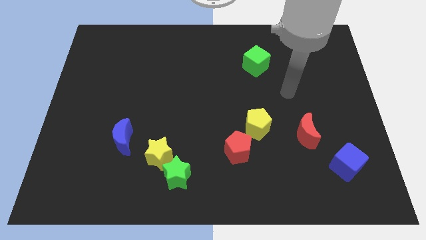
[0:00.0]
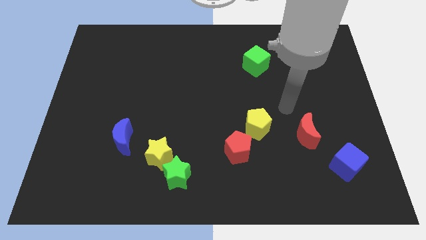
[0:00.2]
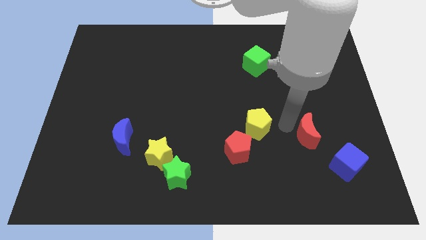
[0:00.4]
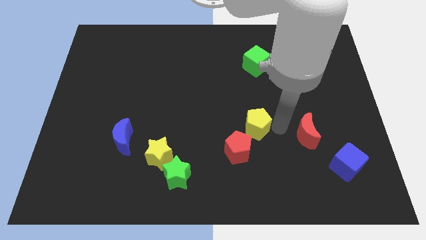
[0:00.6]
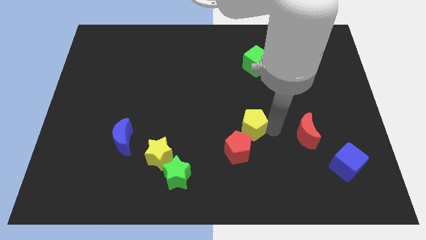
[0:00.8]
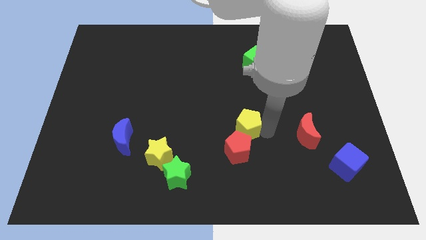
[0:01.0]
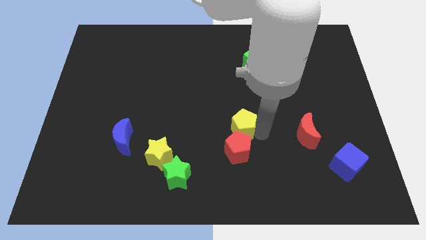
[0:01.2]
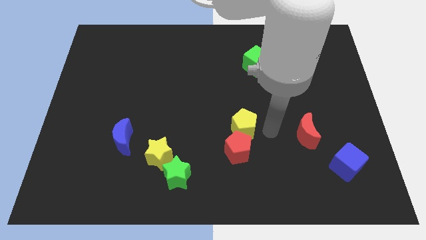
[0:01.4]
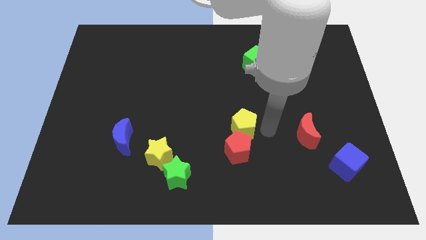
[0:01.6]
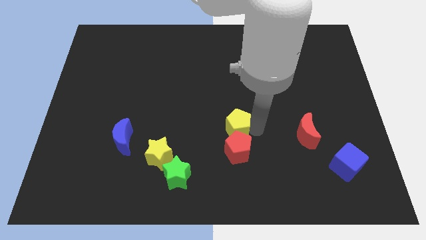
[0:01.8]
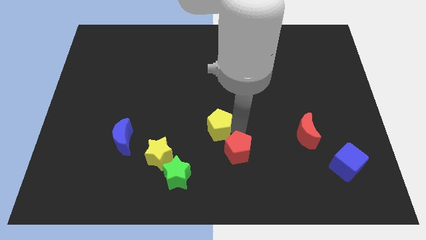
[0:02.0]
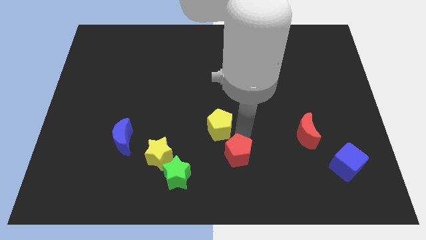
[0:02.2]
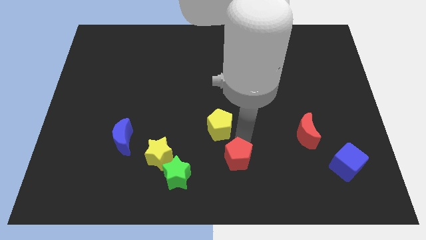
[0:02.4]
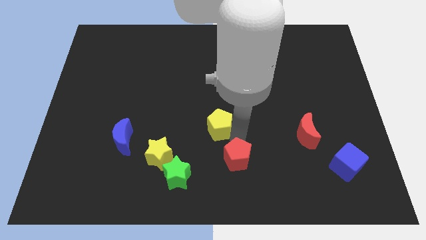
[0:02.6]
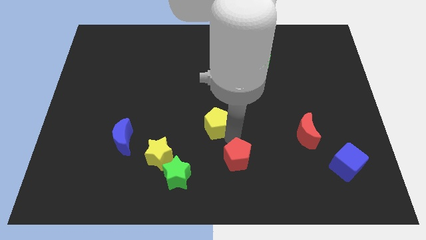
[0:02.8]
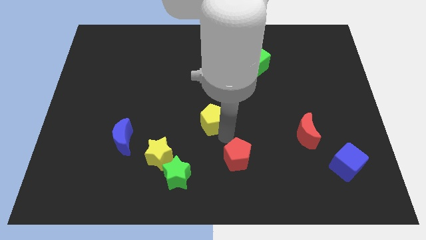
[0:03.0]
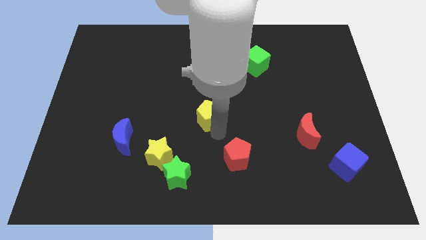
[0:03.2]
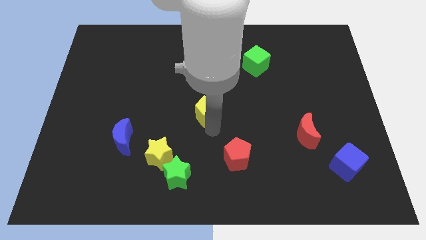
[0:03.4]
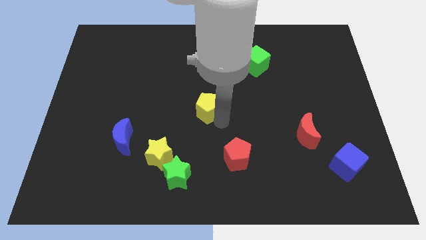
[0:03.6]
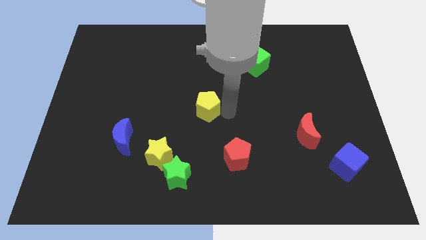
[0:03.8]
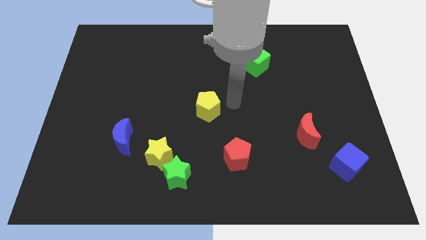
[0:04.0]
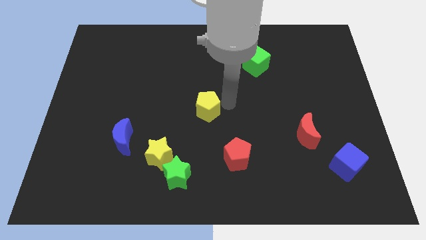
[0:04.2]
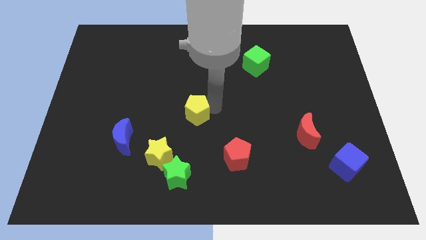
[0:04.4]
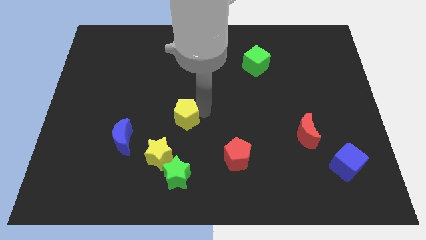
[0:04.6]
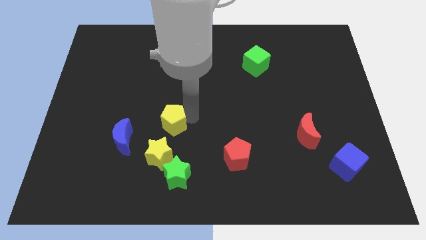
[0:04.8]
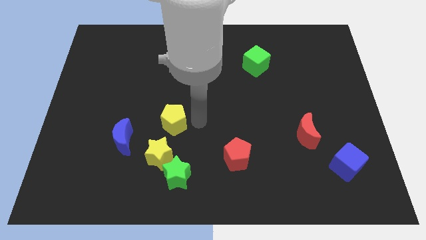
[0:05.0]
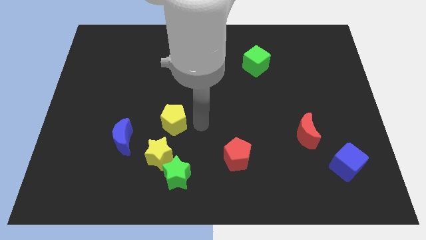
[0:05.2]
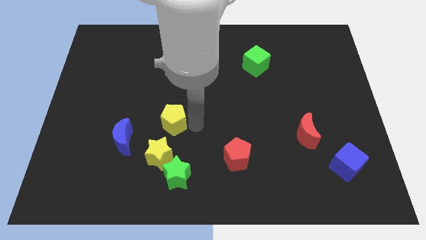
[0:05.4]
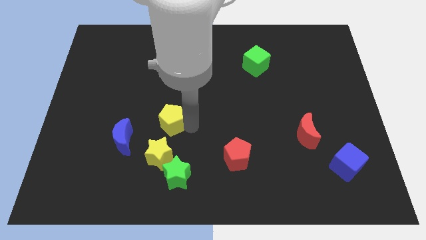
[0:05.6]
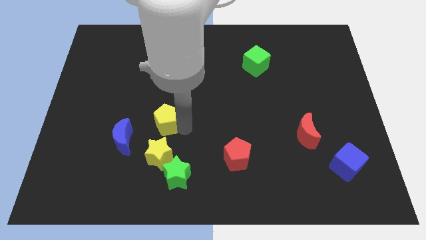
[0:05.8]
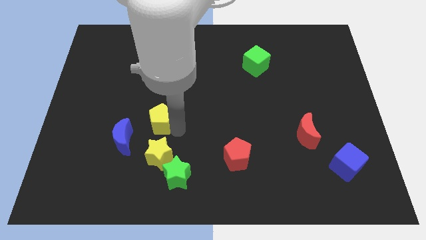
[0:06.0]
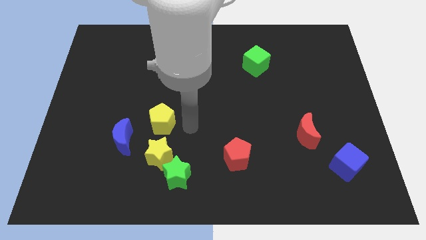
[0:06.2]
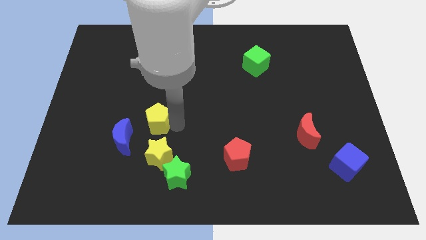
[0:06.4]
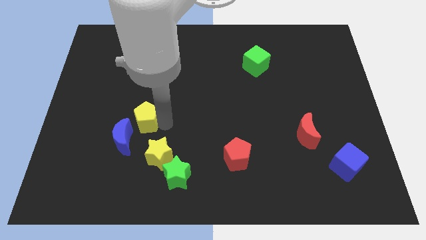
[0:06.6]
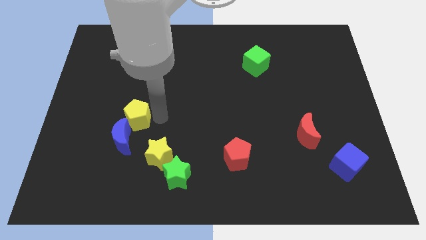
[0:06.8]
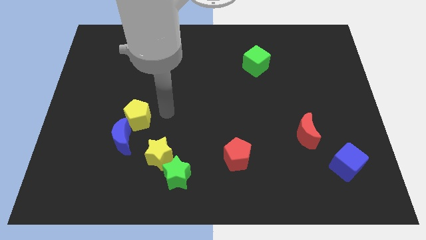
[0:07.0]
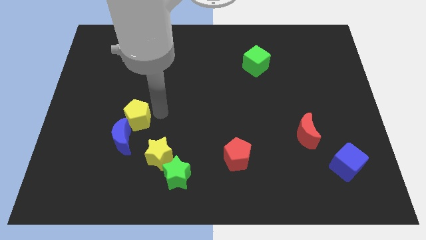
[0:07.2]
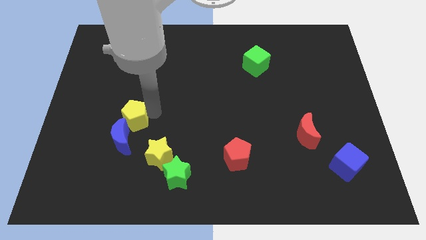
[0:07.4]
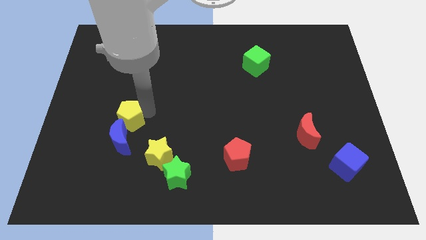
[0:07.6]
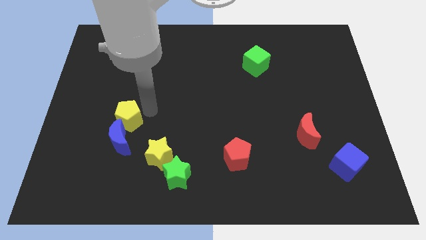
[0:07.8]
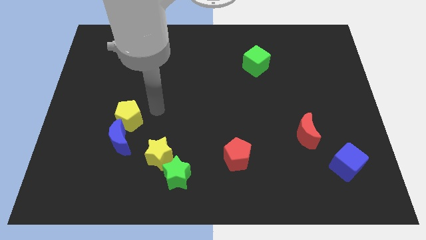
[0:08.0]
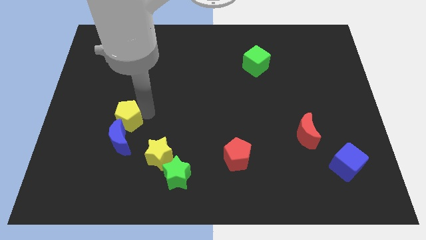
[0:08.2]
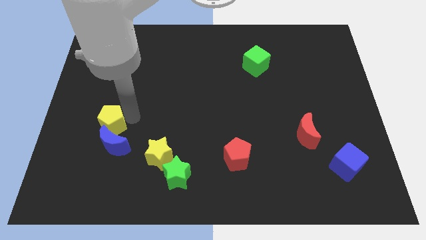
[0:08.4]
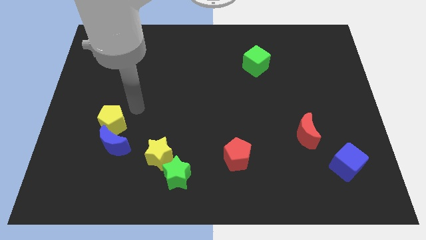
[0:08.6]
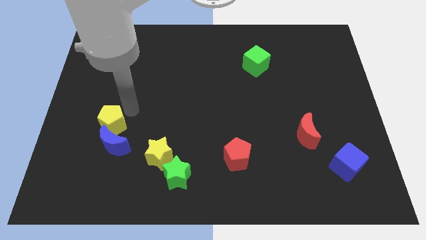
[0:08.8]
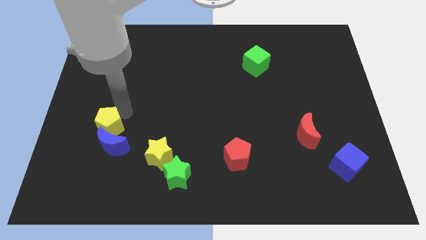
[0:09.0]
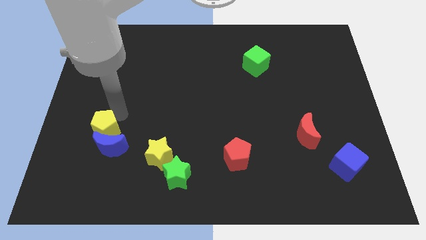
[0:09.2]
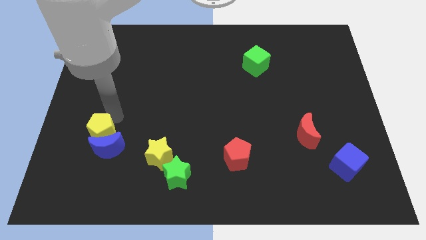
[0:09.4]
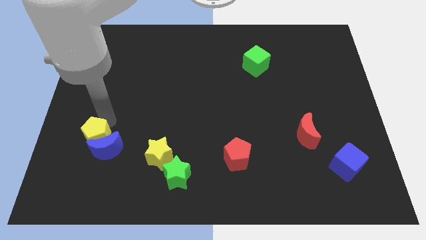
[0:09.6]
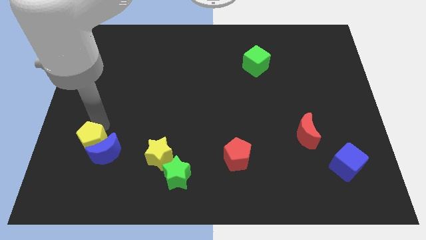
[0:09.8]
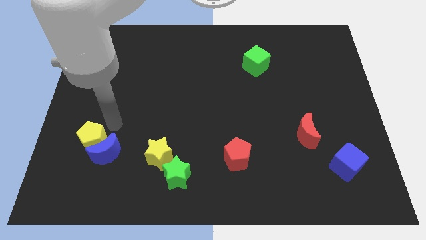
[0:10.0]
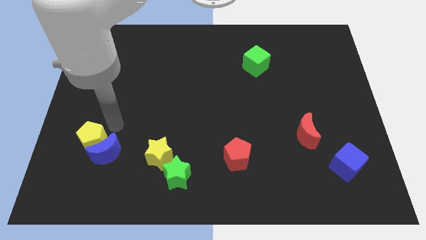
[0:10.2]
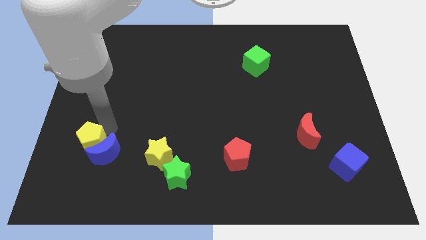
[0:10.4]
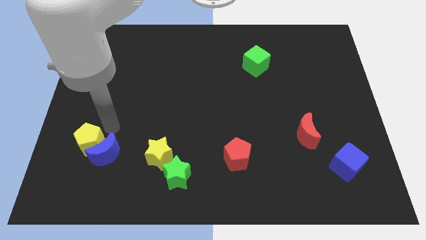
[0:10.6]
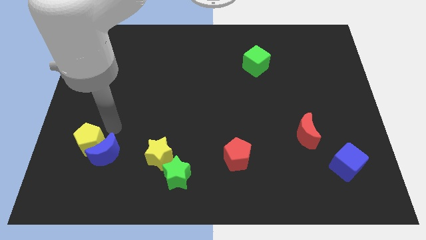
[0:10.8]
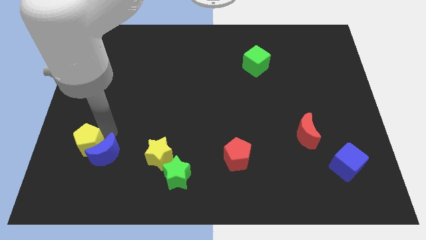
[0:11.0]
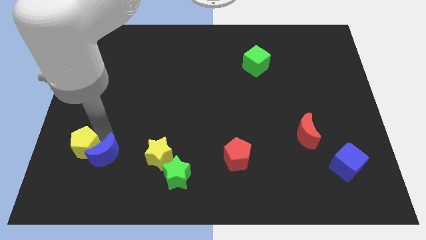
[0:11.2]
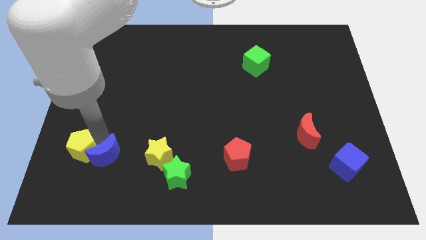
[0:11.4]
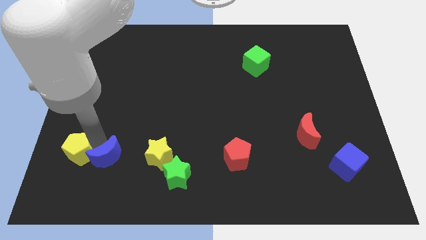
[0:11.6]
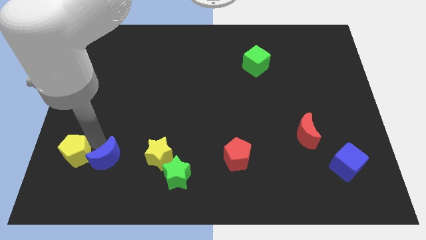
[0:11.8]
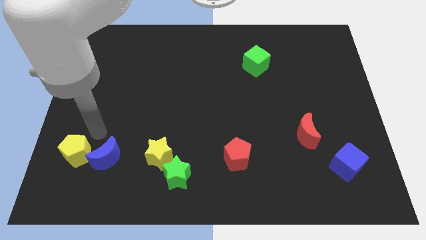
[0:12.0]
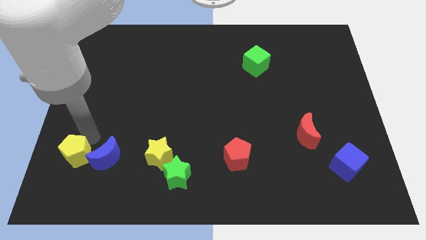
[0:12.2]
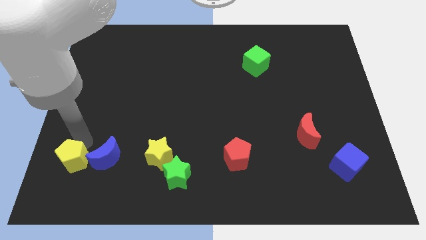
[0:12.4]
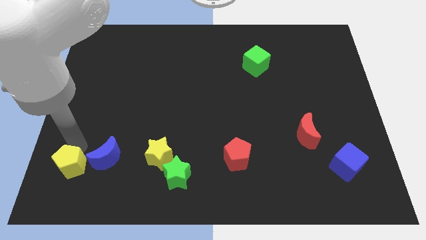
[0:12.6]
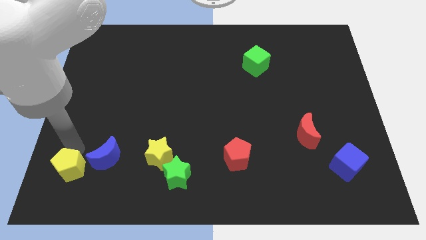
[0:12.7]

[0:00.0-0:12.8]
push the yellow pentagon to the bottom left corner

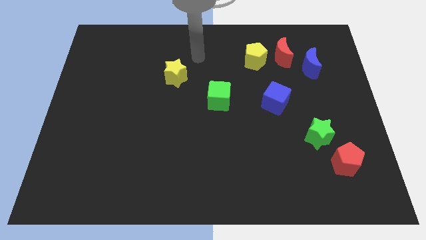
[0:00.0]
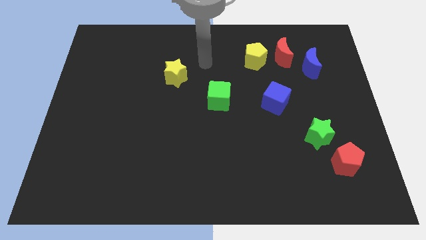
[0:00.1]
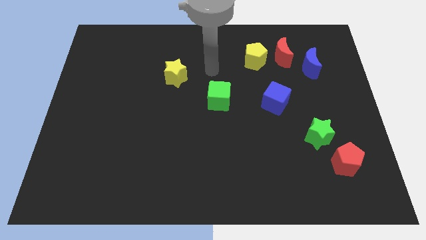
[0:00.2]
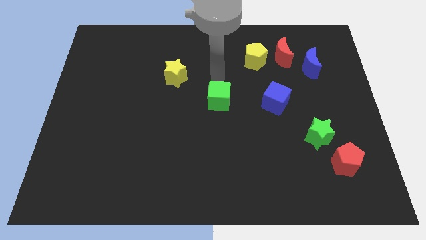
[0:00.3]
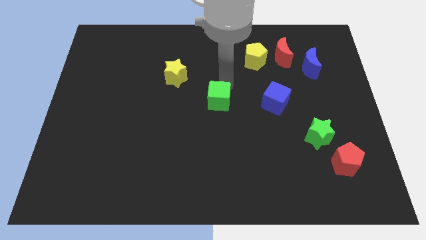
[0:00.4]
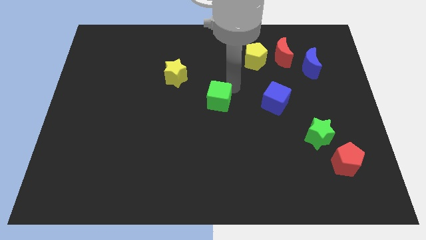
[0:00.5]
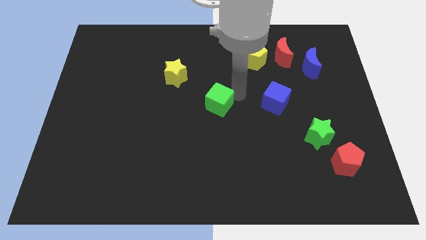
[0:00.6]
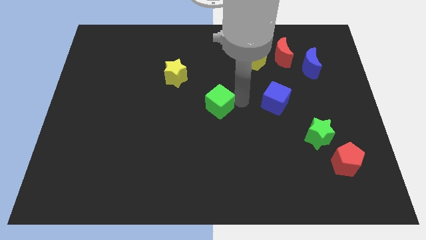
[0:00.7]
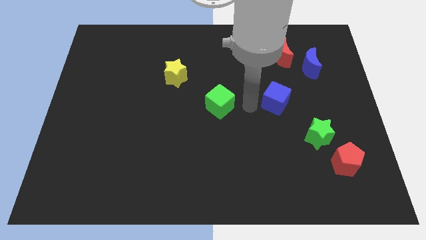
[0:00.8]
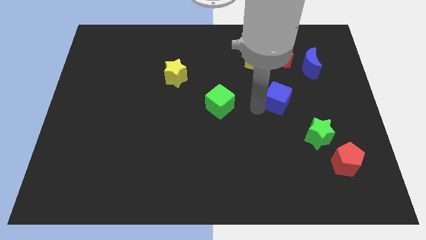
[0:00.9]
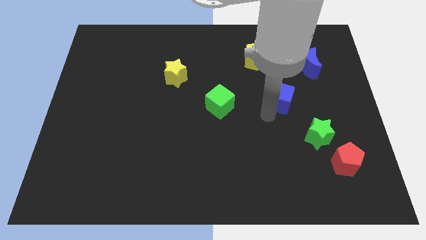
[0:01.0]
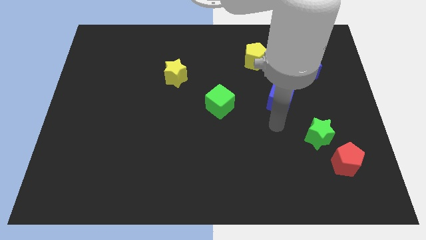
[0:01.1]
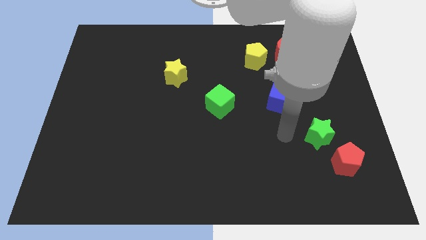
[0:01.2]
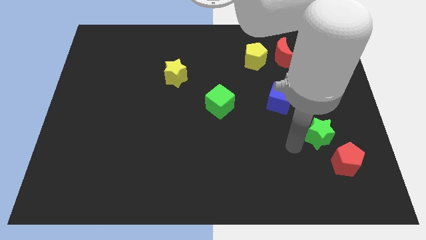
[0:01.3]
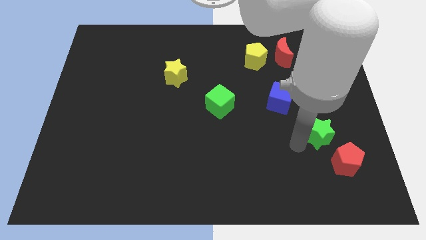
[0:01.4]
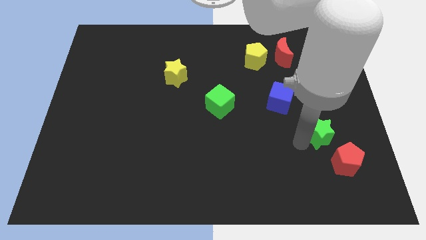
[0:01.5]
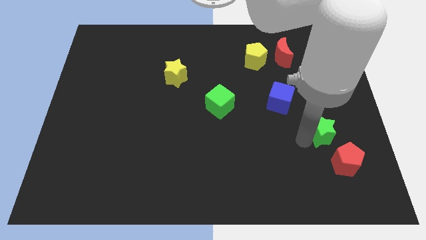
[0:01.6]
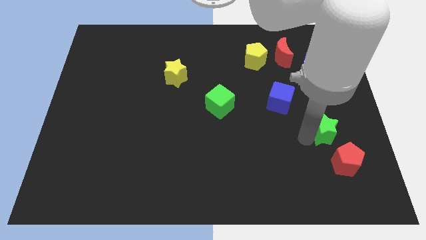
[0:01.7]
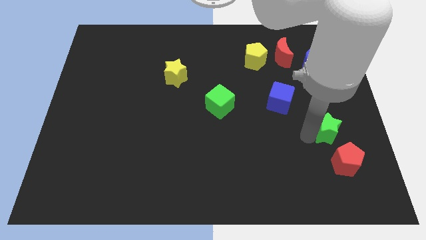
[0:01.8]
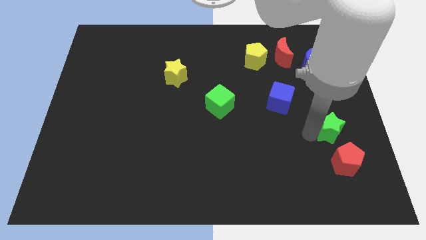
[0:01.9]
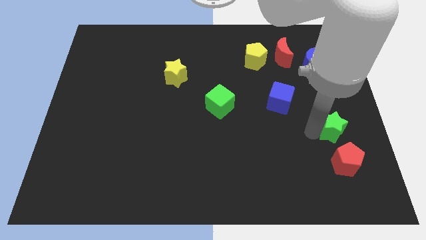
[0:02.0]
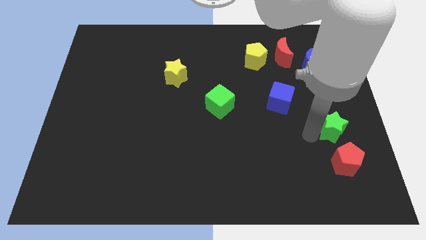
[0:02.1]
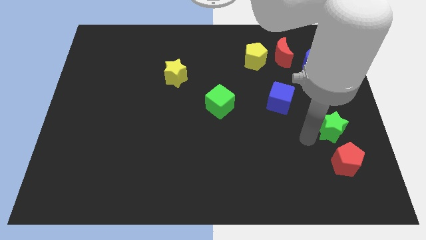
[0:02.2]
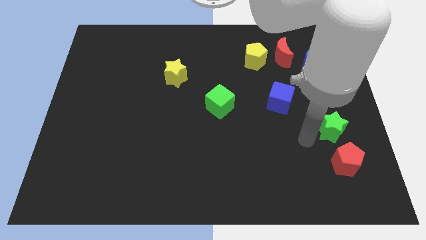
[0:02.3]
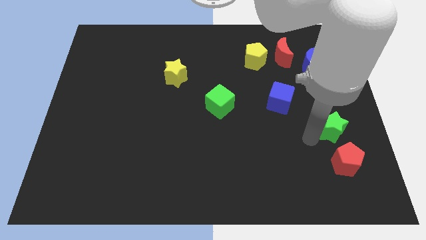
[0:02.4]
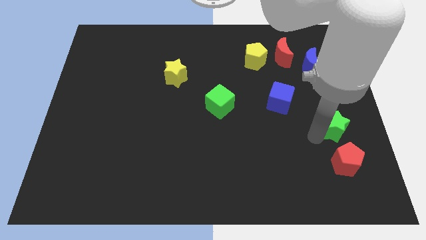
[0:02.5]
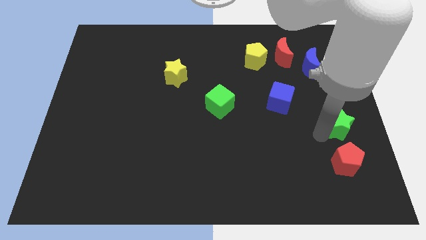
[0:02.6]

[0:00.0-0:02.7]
move the green star to the right side of the board
